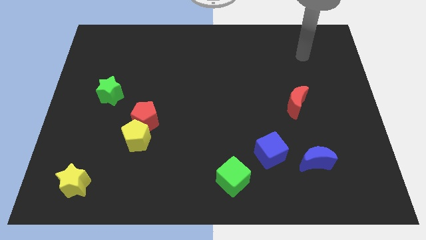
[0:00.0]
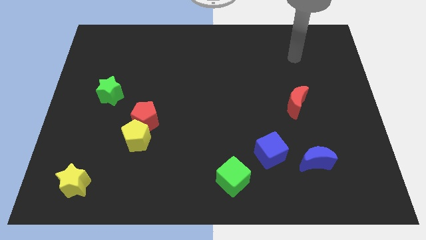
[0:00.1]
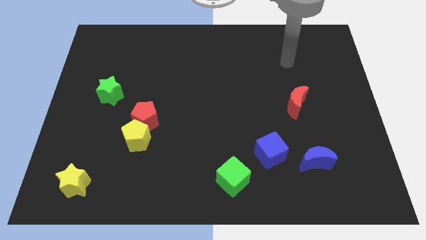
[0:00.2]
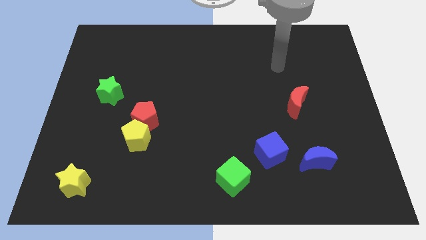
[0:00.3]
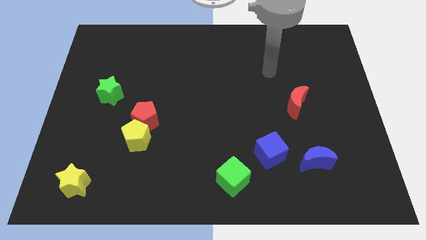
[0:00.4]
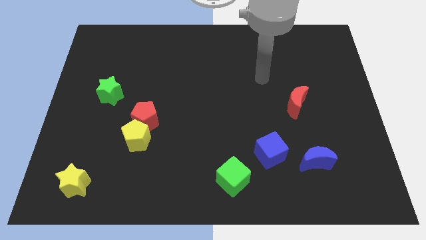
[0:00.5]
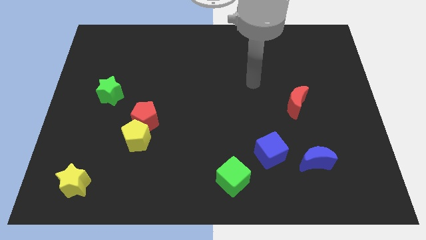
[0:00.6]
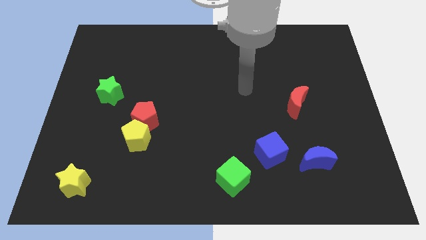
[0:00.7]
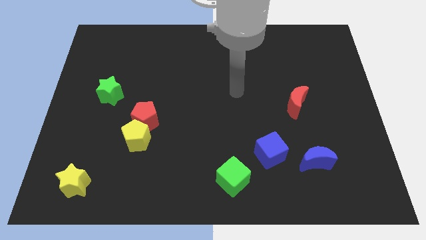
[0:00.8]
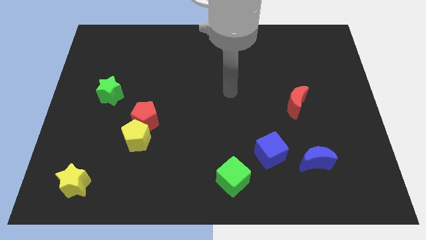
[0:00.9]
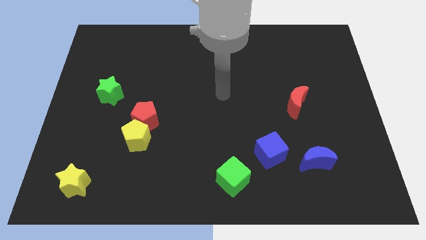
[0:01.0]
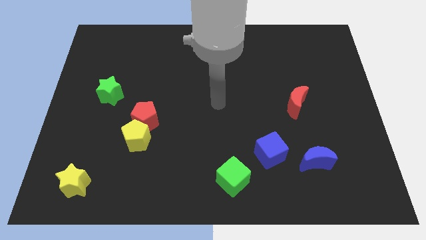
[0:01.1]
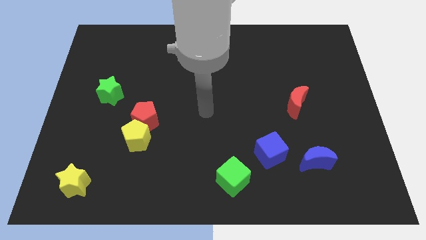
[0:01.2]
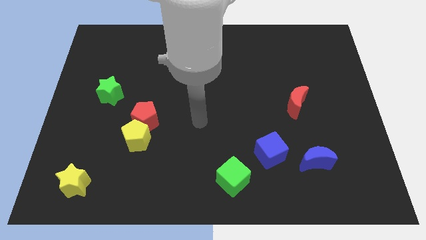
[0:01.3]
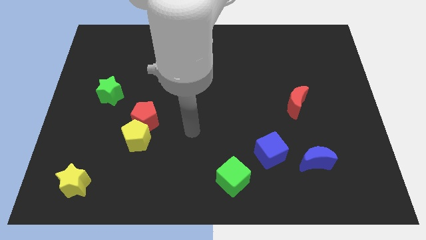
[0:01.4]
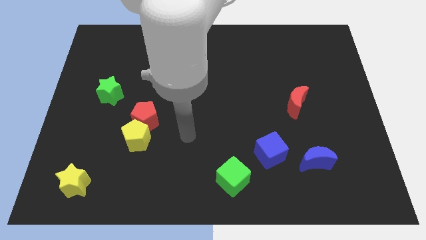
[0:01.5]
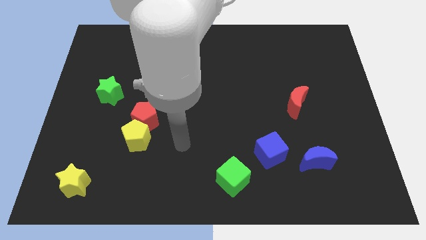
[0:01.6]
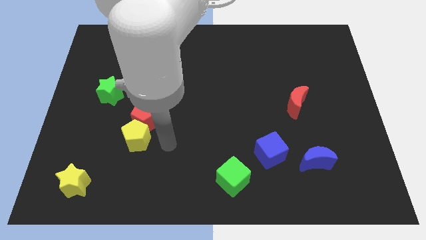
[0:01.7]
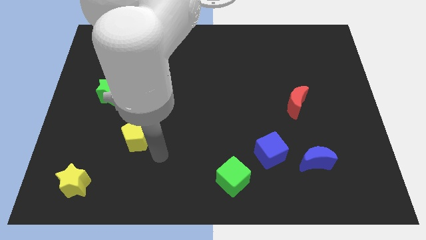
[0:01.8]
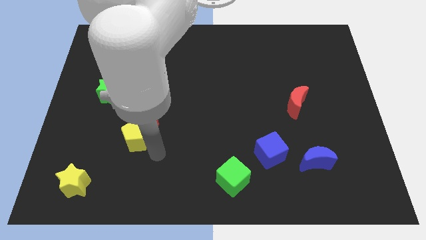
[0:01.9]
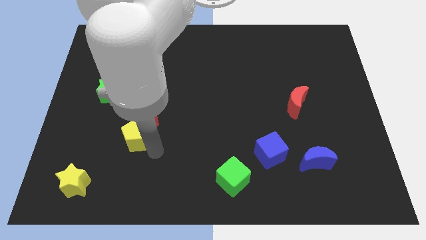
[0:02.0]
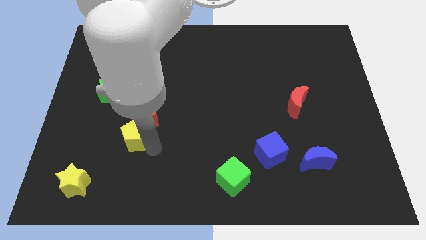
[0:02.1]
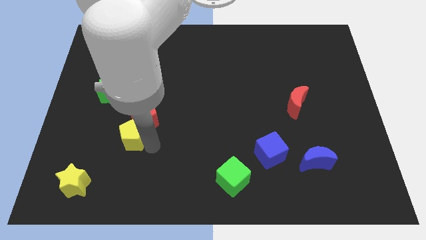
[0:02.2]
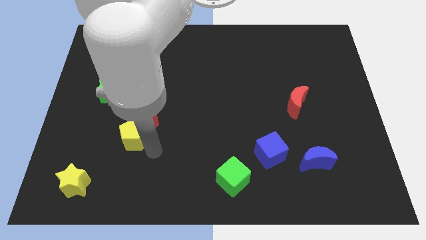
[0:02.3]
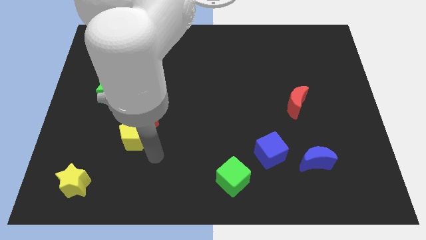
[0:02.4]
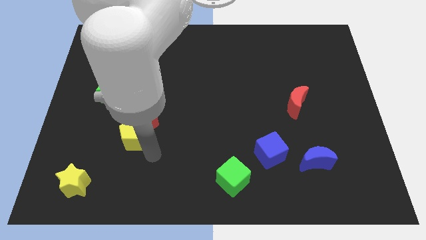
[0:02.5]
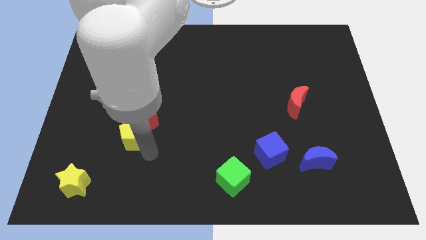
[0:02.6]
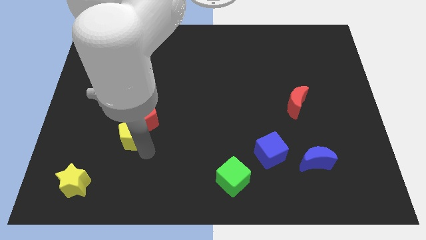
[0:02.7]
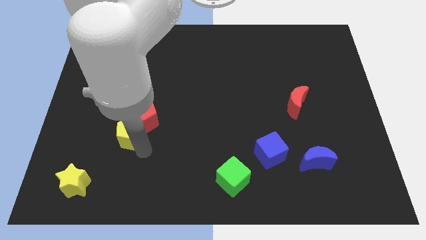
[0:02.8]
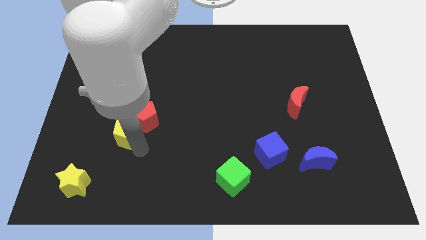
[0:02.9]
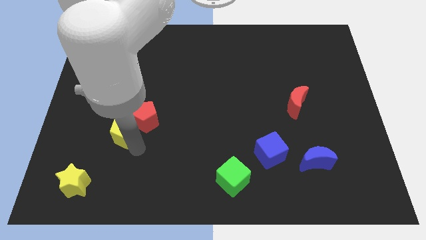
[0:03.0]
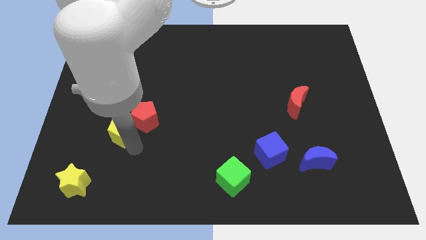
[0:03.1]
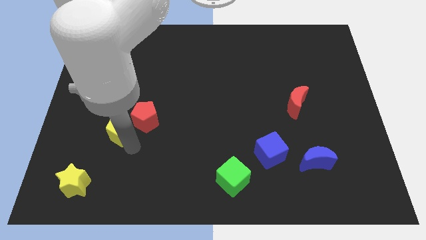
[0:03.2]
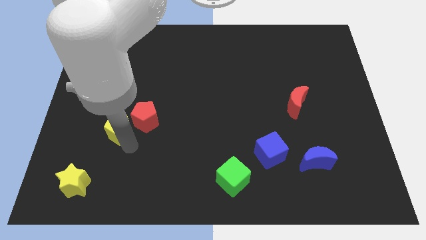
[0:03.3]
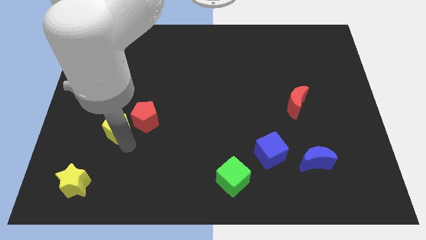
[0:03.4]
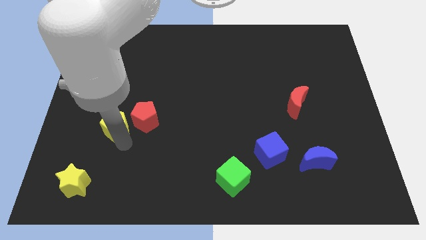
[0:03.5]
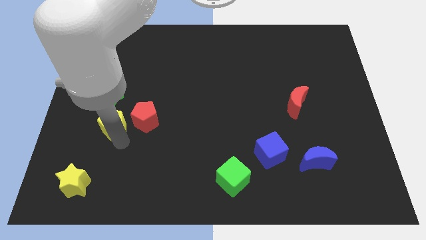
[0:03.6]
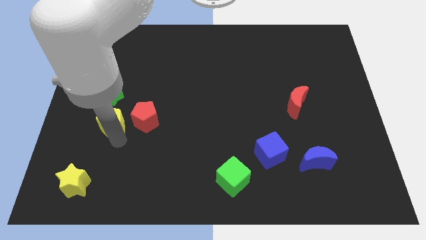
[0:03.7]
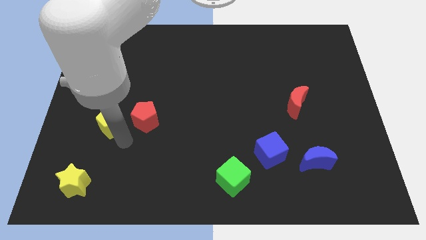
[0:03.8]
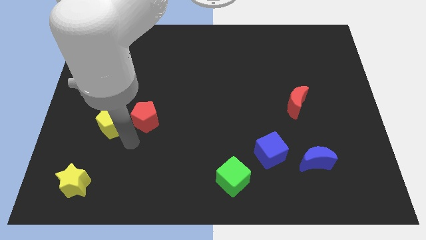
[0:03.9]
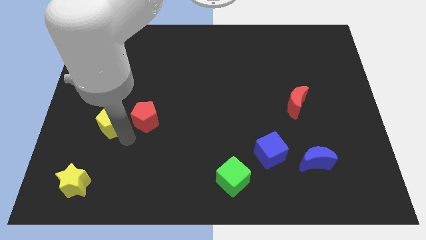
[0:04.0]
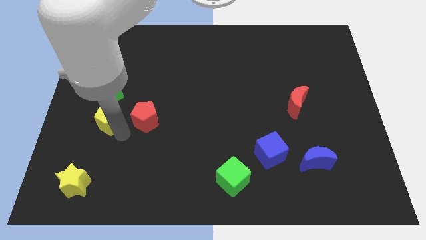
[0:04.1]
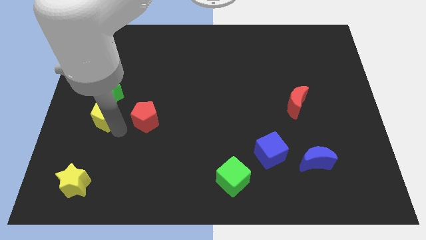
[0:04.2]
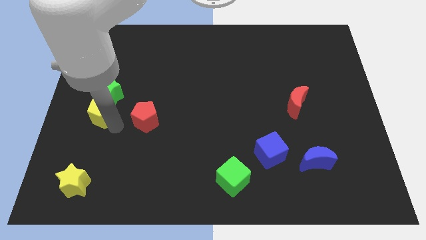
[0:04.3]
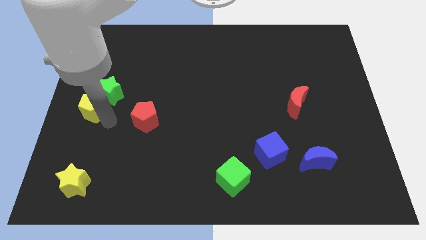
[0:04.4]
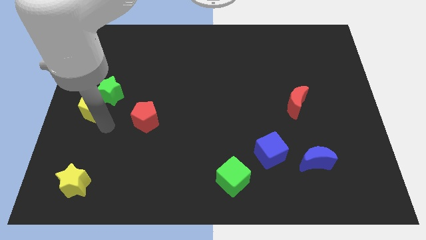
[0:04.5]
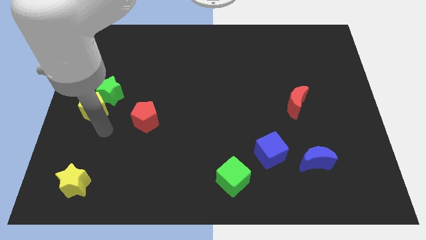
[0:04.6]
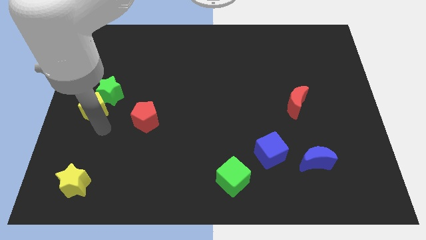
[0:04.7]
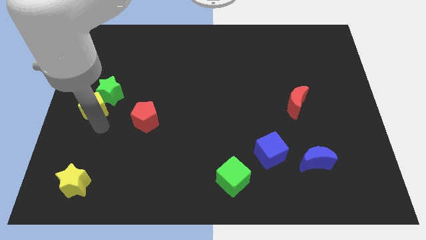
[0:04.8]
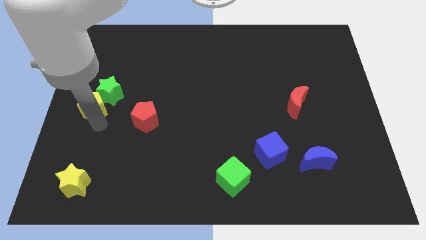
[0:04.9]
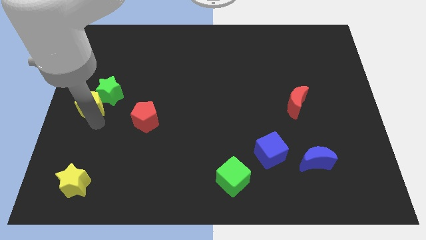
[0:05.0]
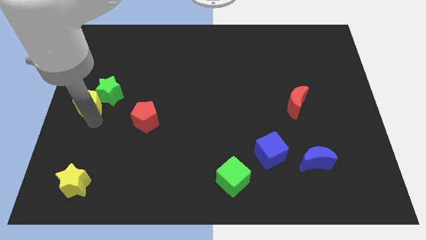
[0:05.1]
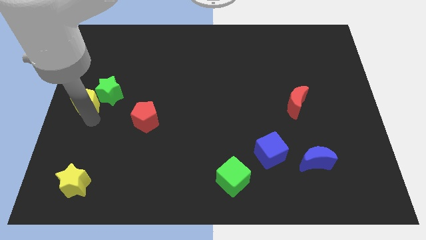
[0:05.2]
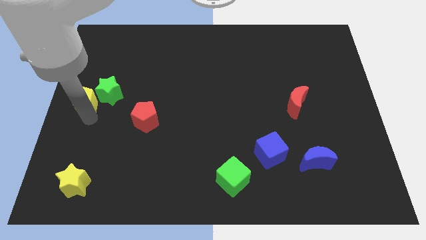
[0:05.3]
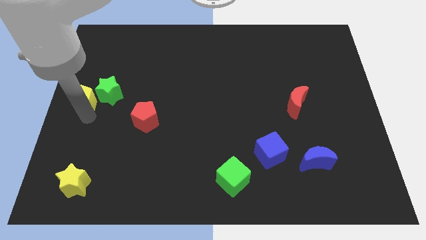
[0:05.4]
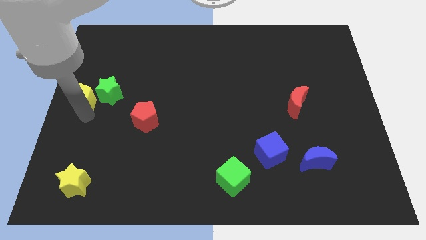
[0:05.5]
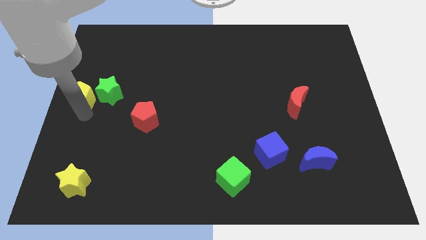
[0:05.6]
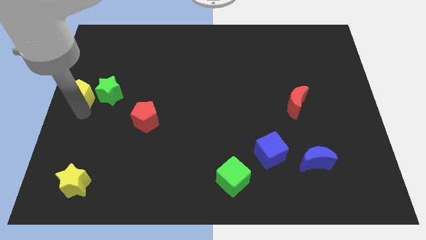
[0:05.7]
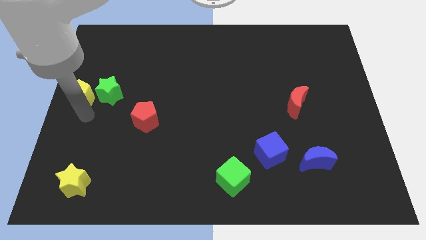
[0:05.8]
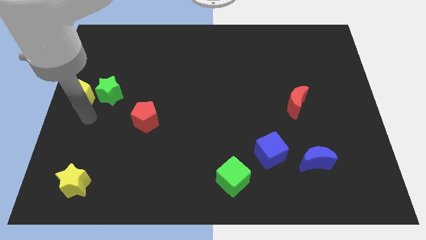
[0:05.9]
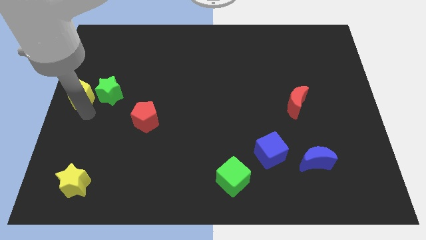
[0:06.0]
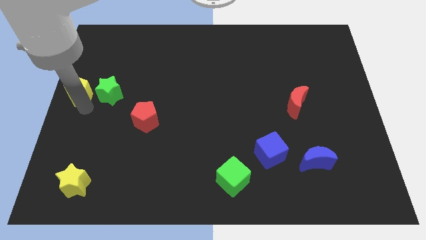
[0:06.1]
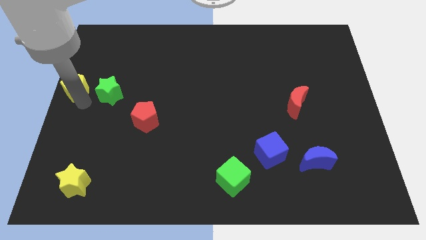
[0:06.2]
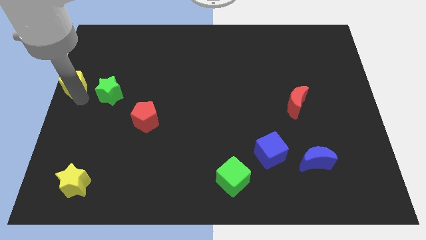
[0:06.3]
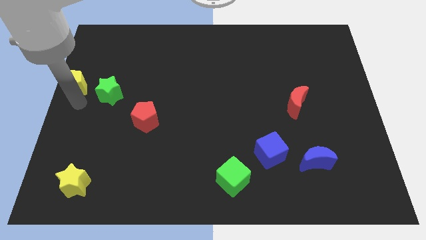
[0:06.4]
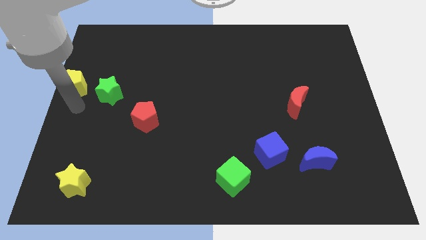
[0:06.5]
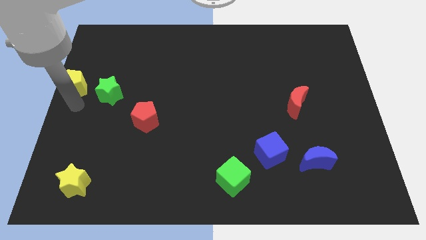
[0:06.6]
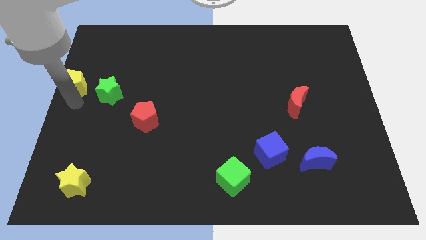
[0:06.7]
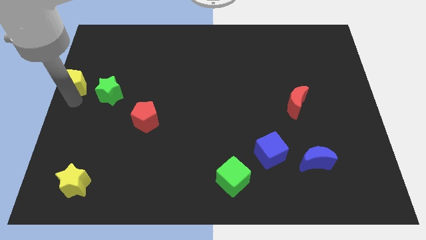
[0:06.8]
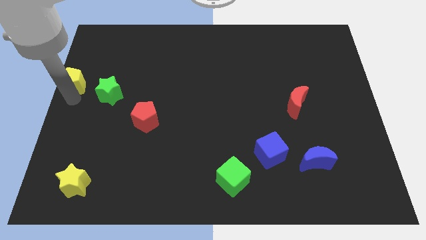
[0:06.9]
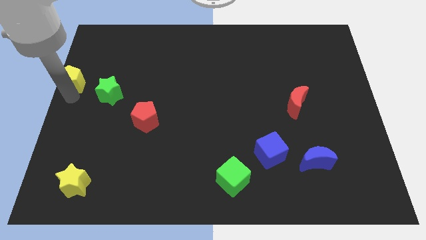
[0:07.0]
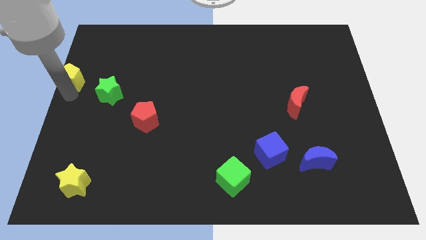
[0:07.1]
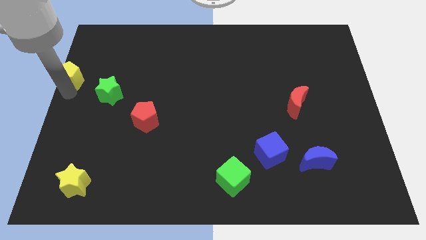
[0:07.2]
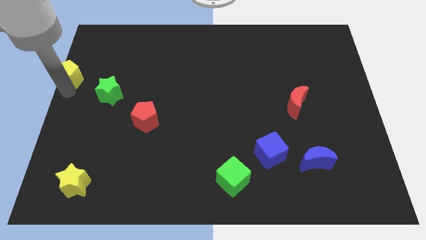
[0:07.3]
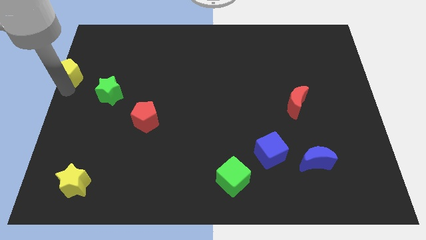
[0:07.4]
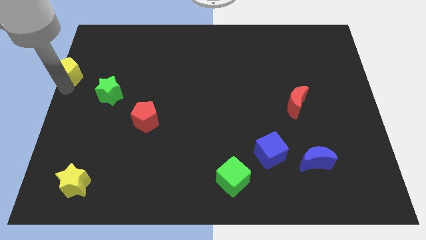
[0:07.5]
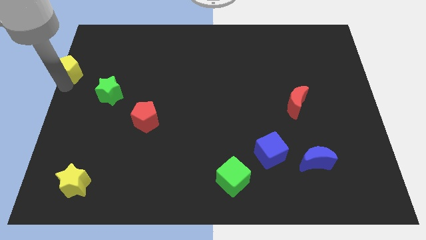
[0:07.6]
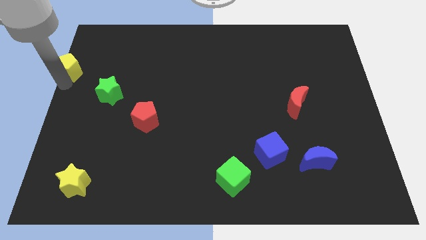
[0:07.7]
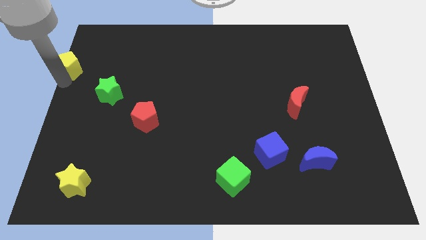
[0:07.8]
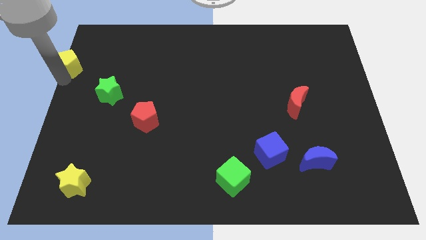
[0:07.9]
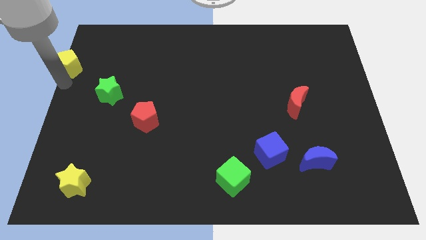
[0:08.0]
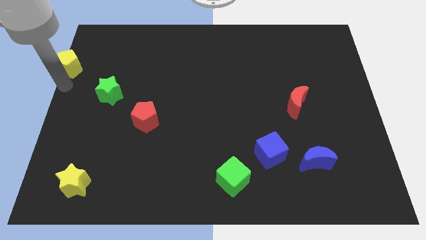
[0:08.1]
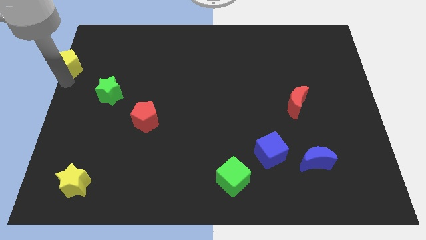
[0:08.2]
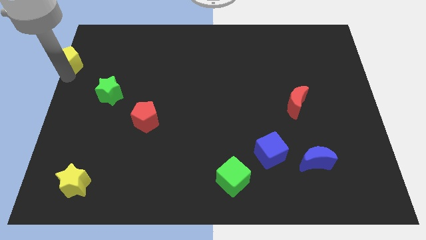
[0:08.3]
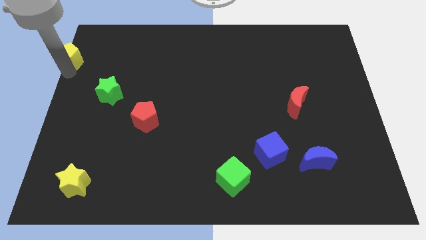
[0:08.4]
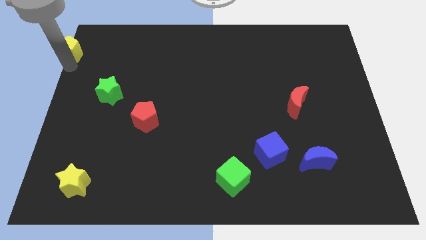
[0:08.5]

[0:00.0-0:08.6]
move the yellow pentagon to the top left
